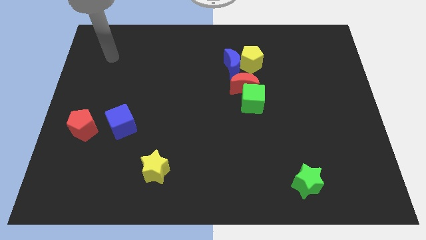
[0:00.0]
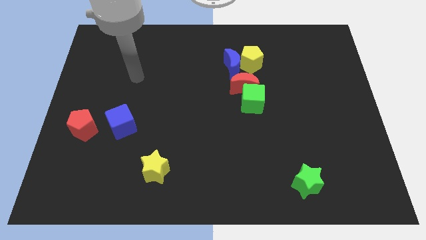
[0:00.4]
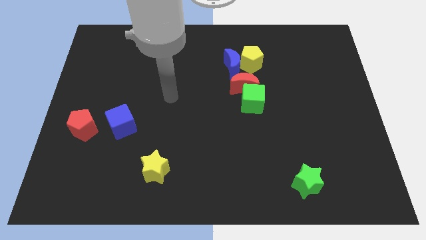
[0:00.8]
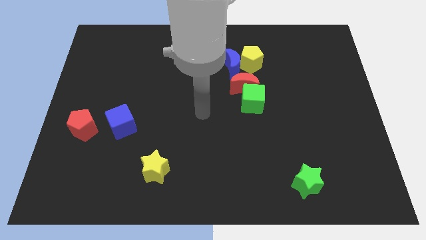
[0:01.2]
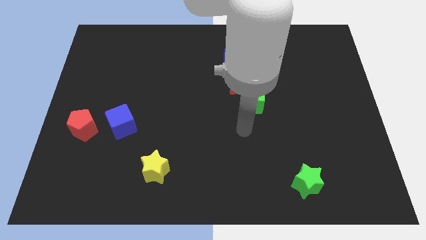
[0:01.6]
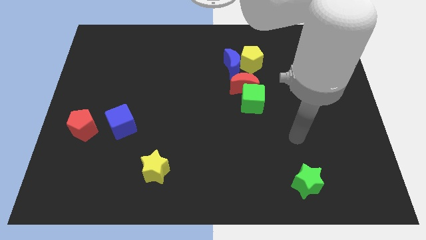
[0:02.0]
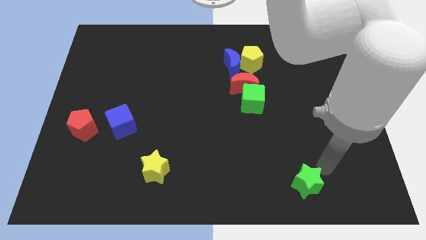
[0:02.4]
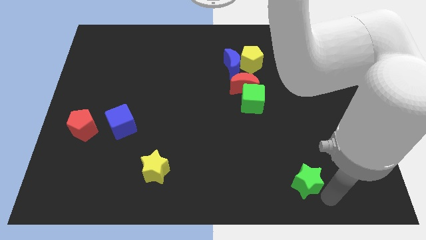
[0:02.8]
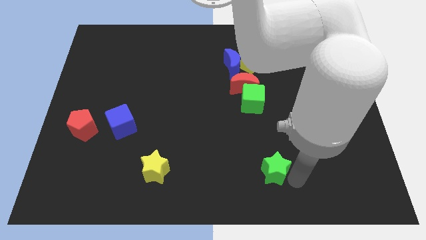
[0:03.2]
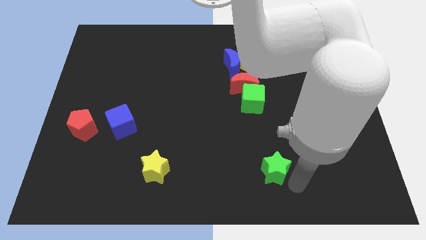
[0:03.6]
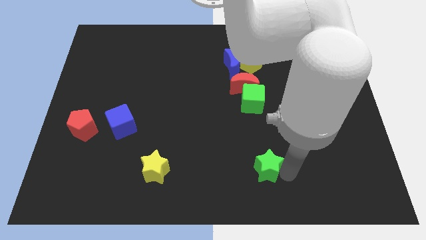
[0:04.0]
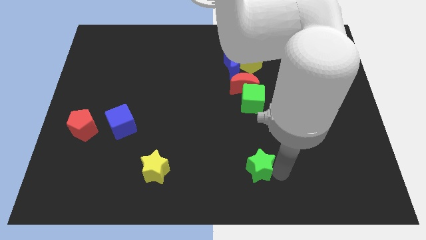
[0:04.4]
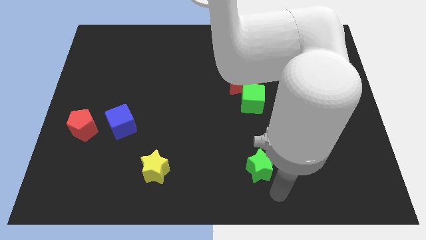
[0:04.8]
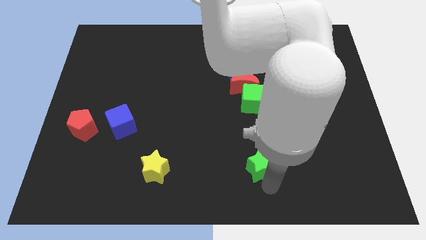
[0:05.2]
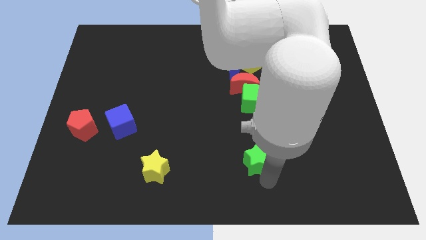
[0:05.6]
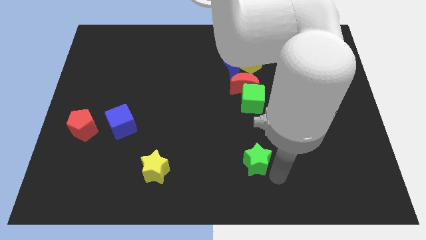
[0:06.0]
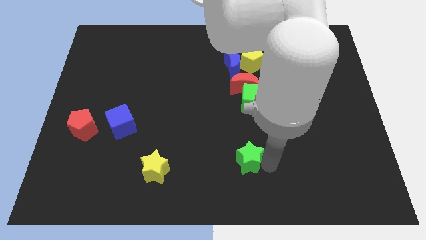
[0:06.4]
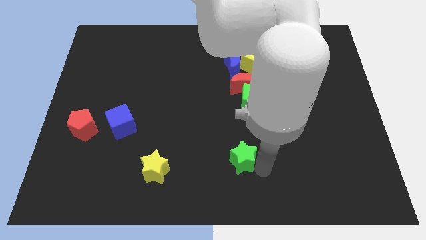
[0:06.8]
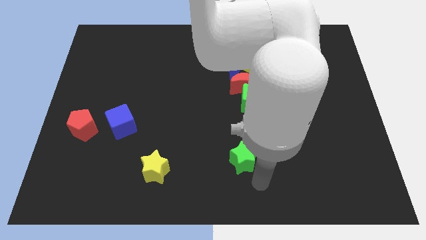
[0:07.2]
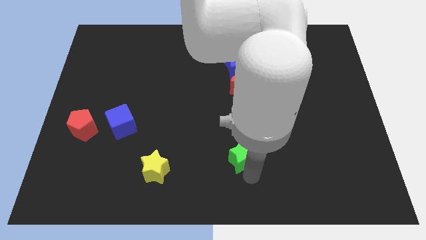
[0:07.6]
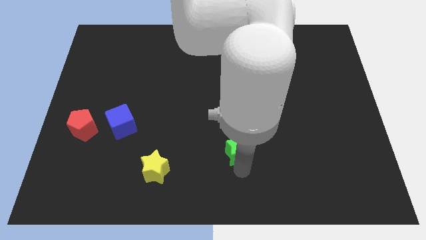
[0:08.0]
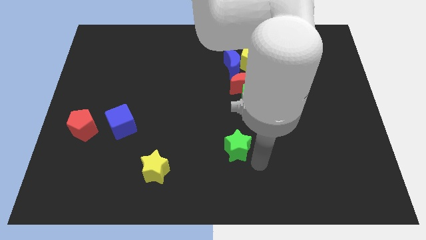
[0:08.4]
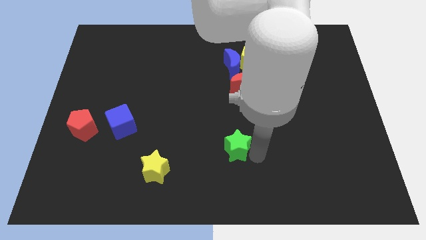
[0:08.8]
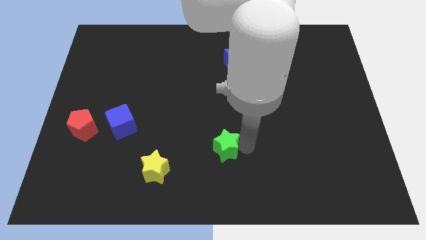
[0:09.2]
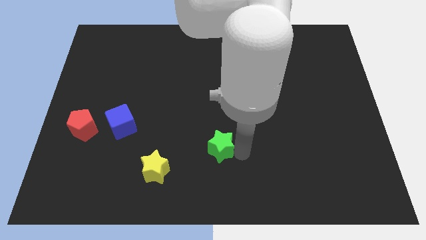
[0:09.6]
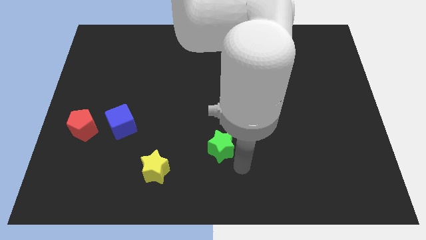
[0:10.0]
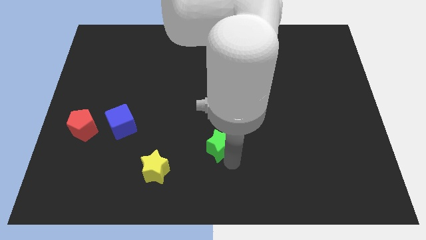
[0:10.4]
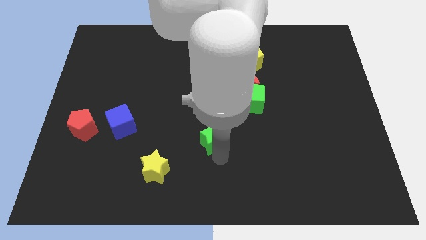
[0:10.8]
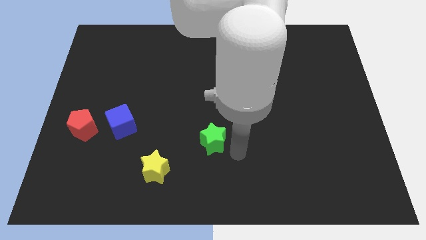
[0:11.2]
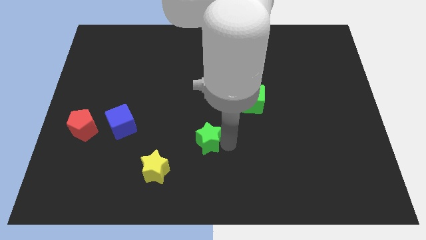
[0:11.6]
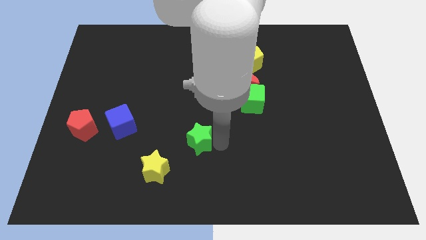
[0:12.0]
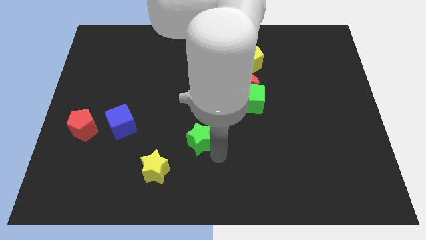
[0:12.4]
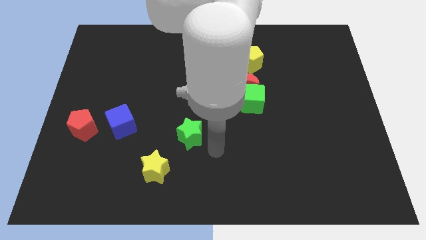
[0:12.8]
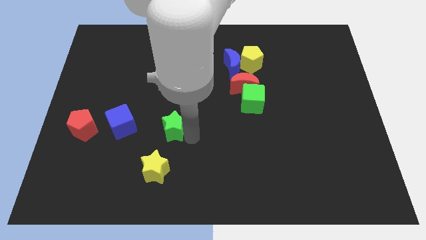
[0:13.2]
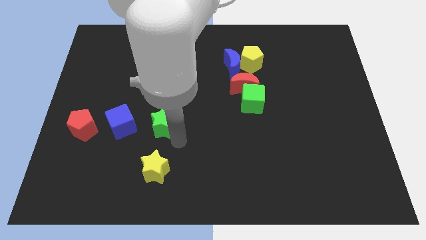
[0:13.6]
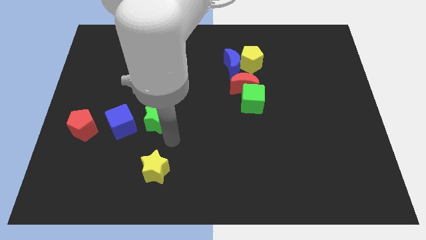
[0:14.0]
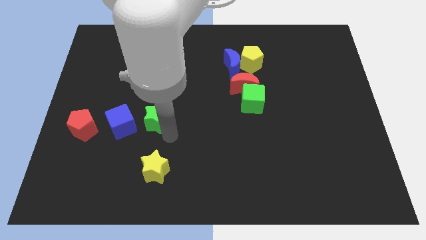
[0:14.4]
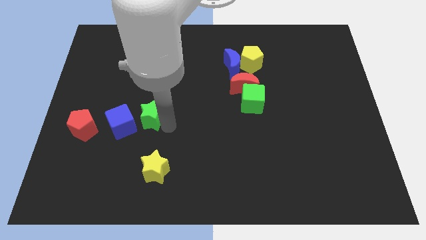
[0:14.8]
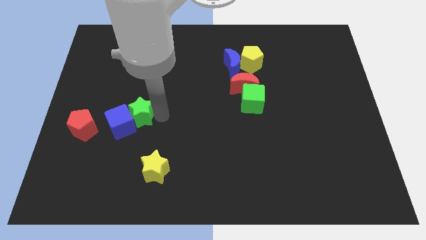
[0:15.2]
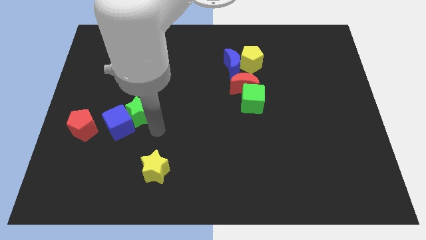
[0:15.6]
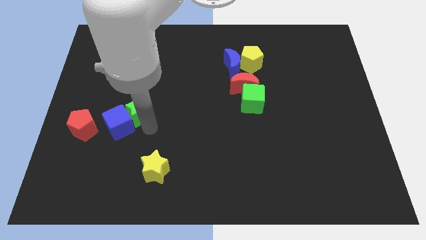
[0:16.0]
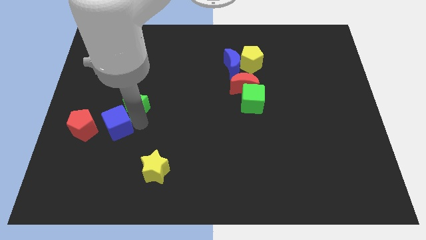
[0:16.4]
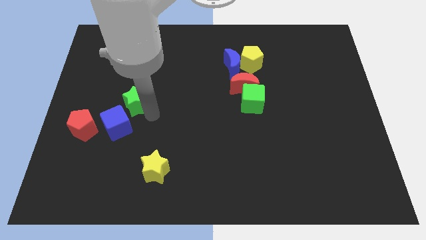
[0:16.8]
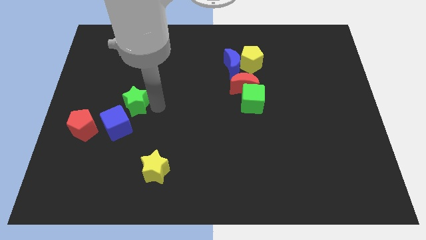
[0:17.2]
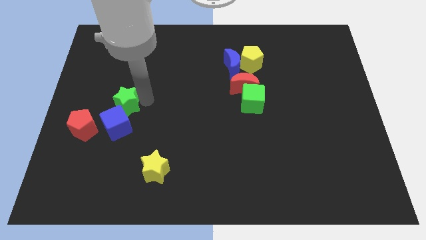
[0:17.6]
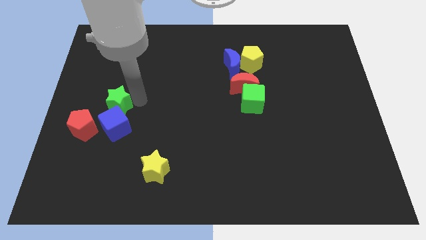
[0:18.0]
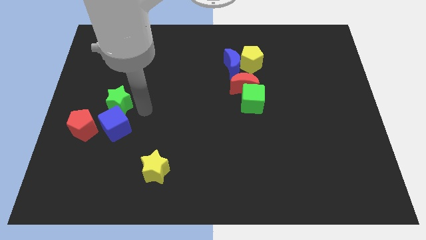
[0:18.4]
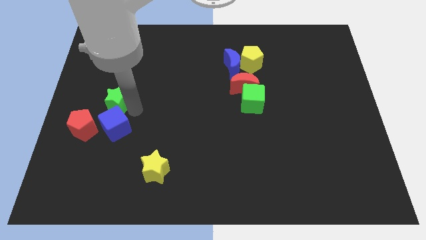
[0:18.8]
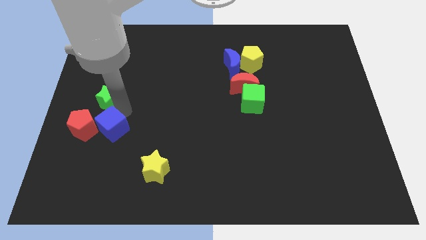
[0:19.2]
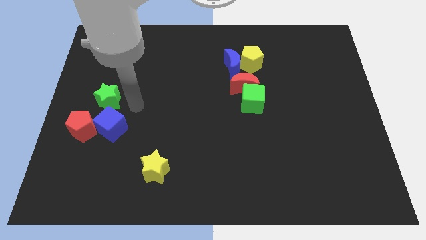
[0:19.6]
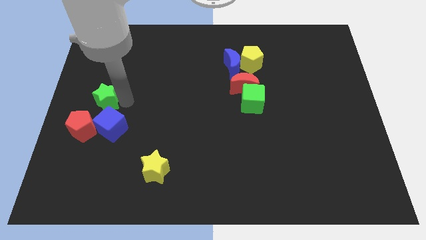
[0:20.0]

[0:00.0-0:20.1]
move the green star to the left side

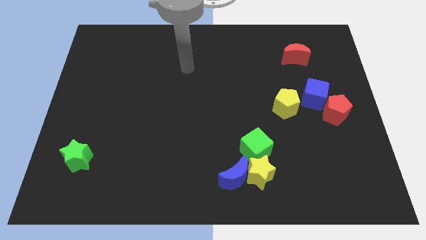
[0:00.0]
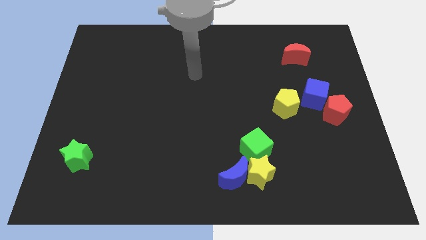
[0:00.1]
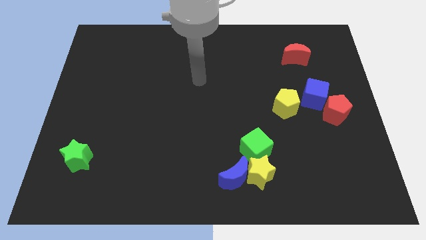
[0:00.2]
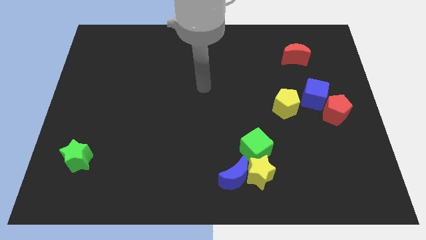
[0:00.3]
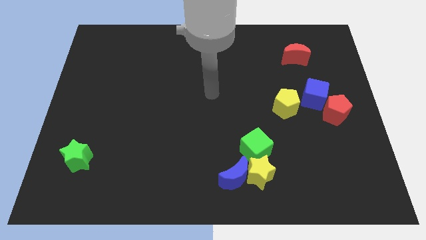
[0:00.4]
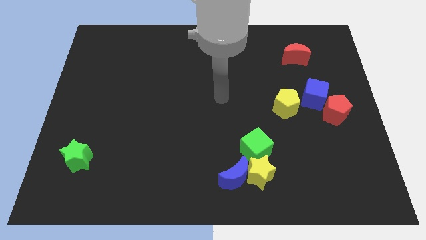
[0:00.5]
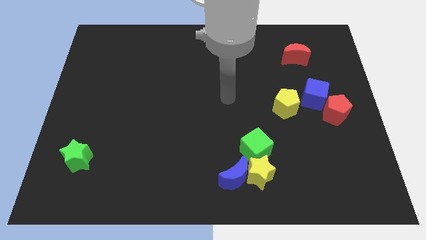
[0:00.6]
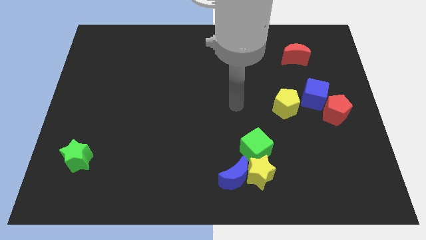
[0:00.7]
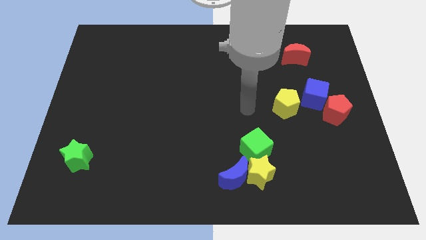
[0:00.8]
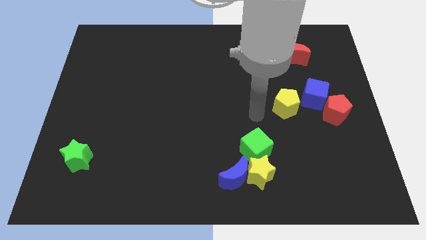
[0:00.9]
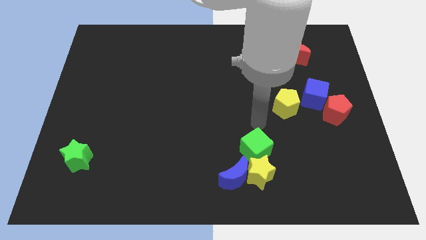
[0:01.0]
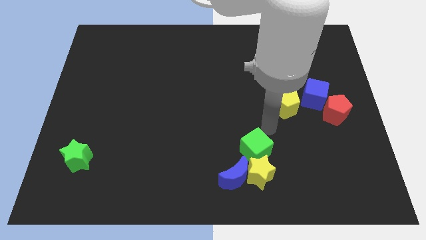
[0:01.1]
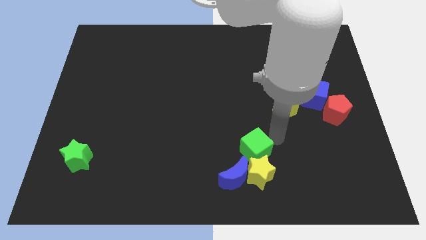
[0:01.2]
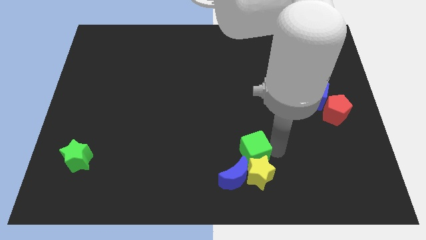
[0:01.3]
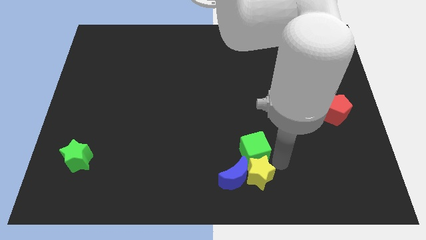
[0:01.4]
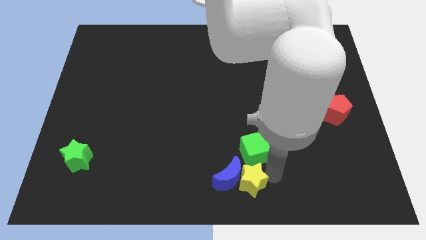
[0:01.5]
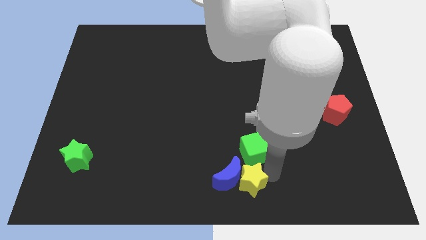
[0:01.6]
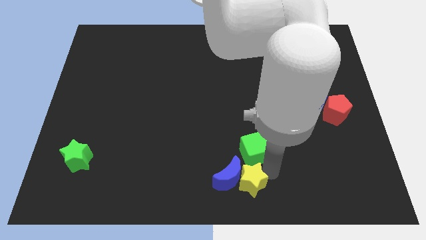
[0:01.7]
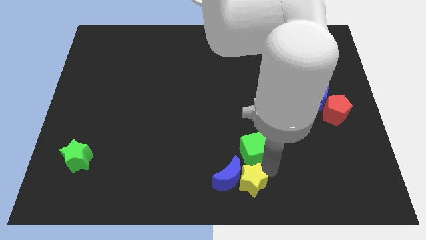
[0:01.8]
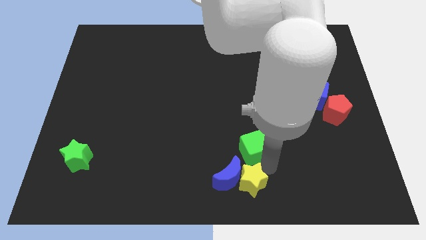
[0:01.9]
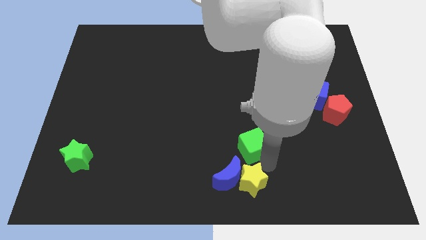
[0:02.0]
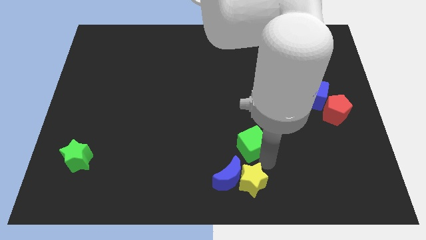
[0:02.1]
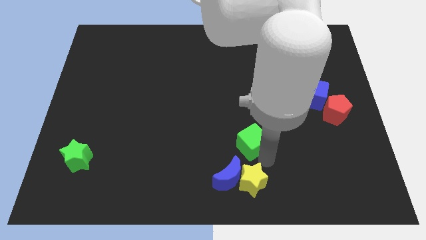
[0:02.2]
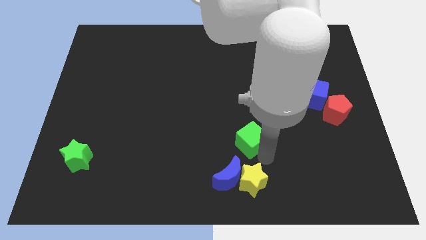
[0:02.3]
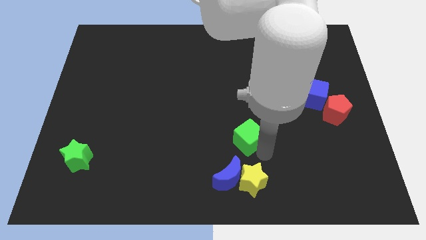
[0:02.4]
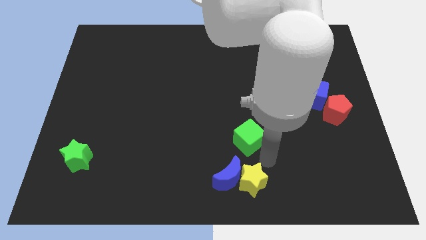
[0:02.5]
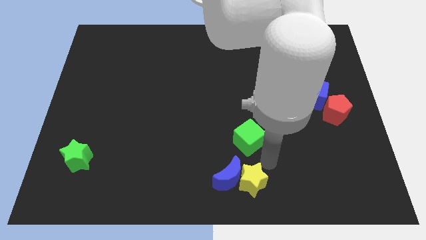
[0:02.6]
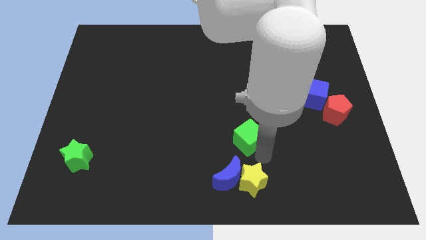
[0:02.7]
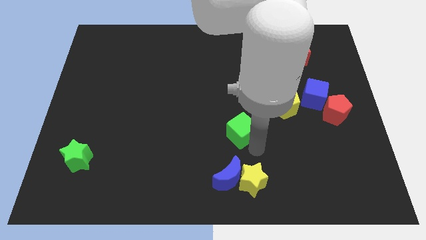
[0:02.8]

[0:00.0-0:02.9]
move the green cube to the center of the board
